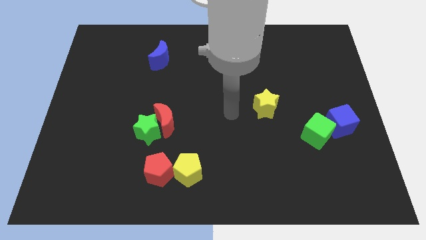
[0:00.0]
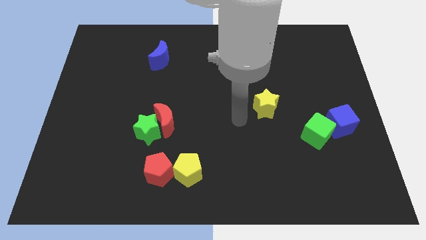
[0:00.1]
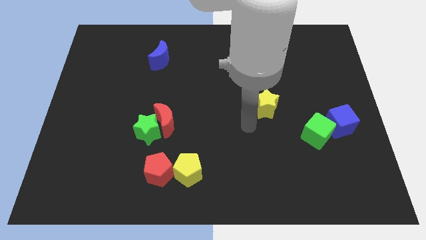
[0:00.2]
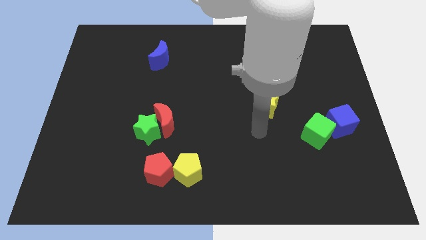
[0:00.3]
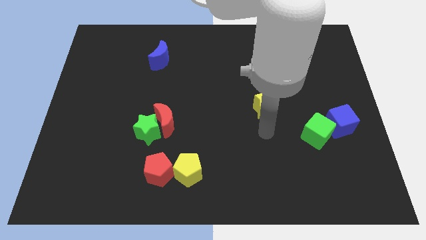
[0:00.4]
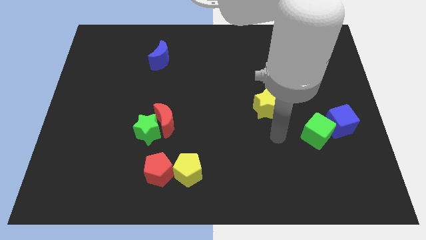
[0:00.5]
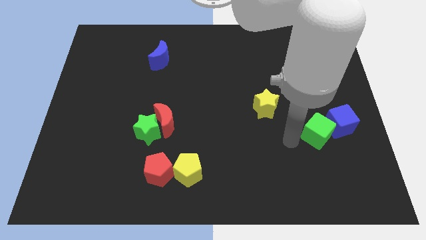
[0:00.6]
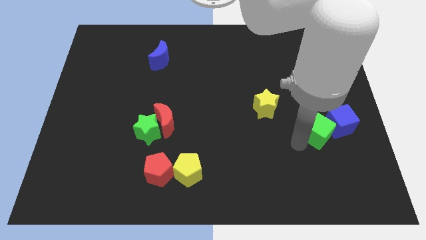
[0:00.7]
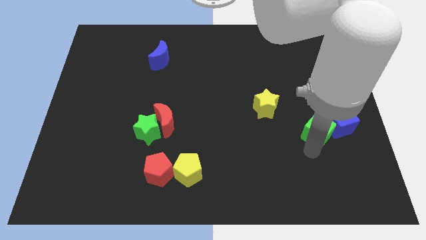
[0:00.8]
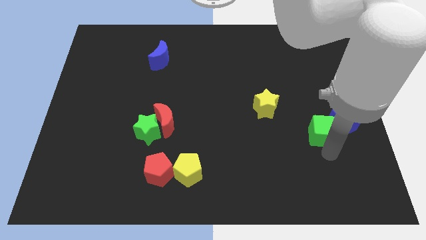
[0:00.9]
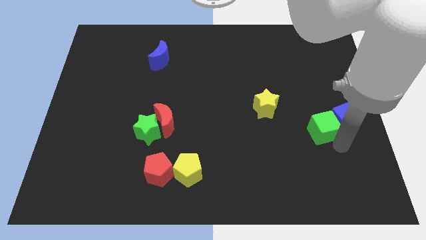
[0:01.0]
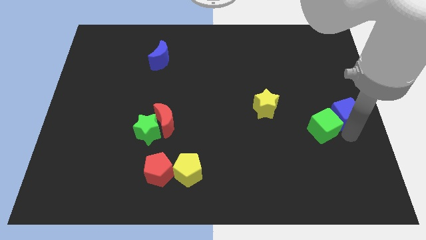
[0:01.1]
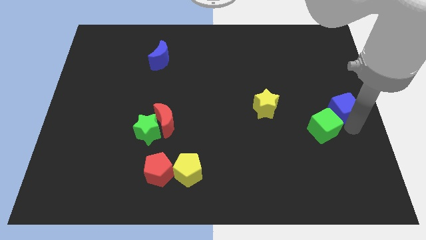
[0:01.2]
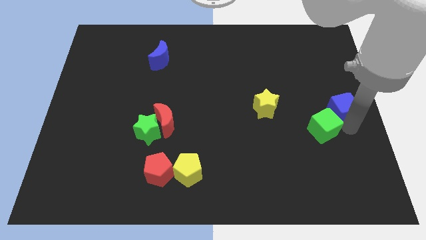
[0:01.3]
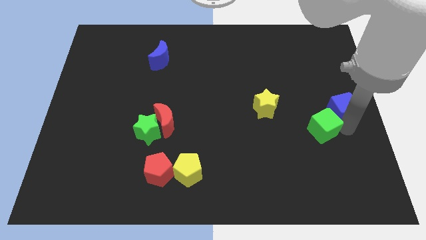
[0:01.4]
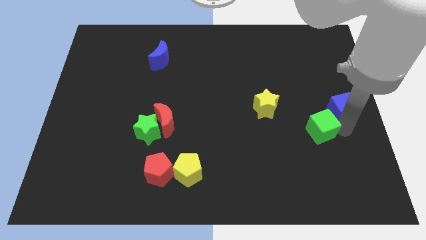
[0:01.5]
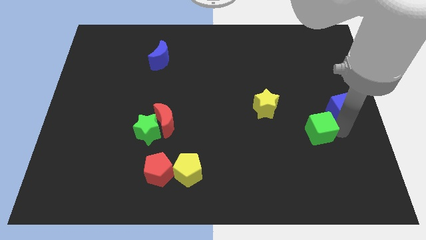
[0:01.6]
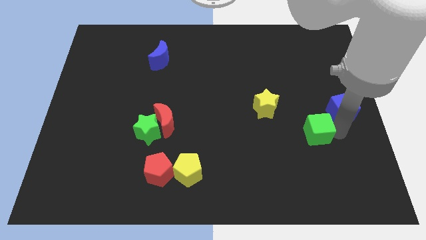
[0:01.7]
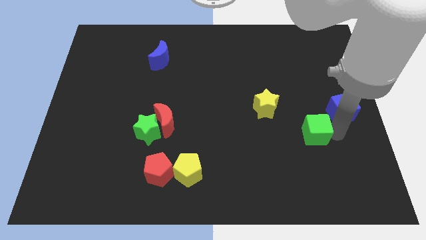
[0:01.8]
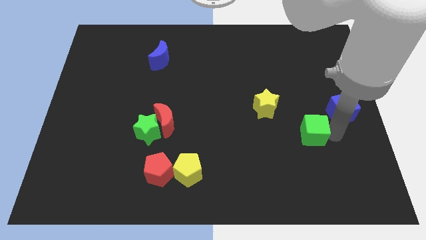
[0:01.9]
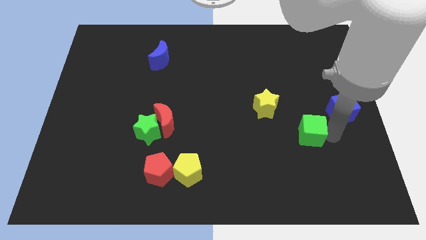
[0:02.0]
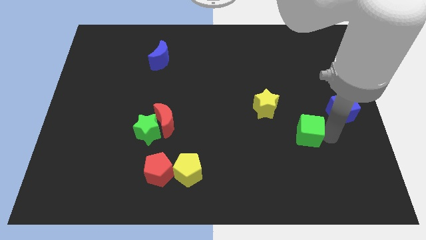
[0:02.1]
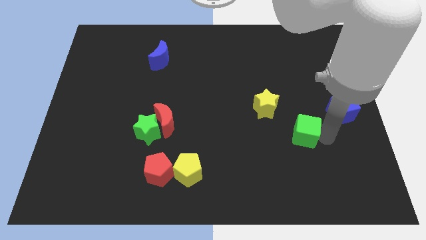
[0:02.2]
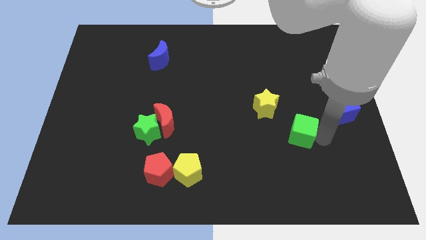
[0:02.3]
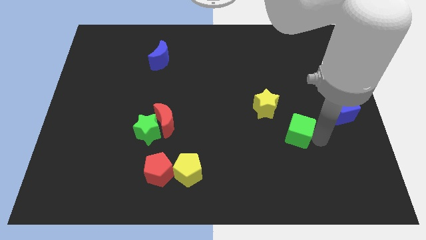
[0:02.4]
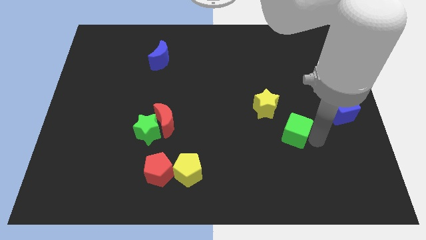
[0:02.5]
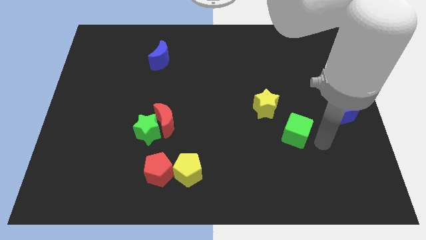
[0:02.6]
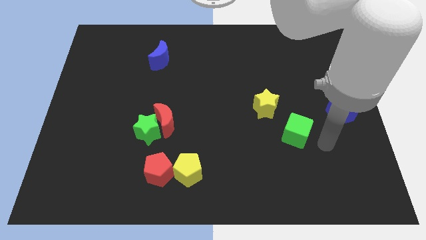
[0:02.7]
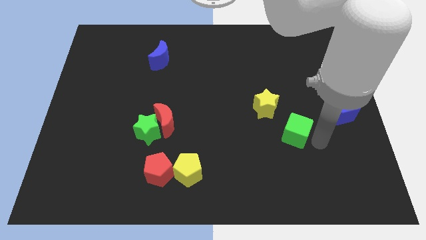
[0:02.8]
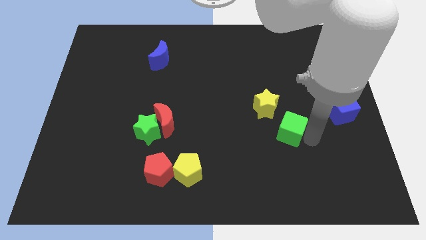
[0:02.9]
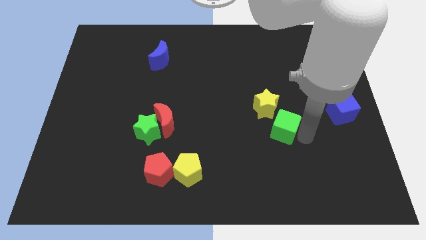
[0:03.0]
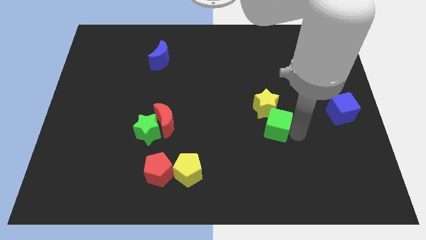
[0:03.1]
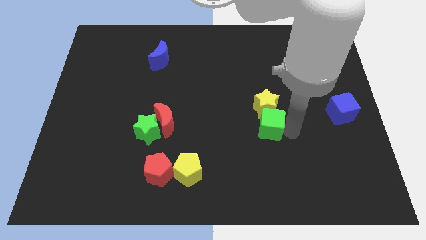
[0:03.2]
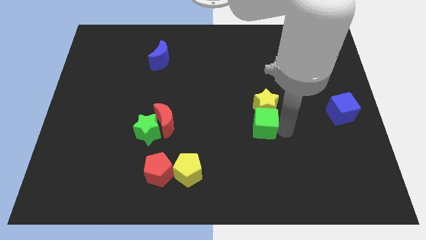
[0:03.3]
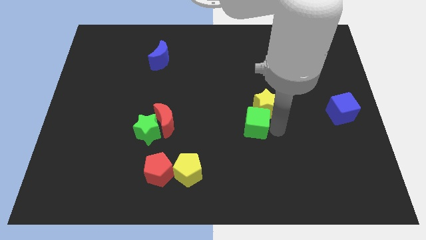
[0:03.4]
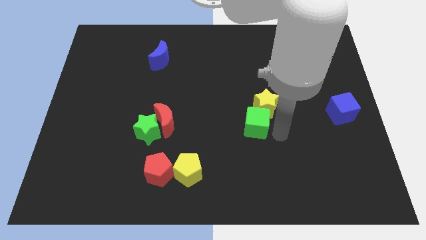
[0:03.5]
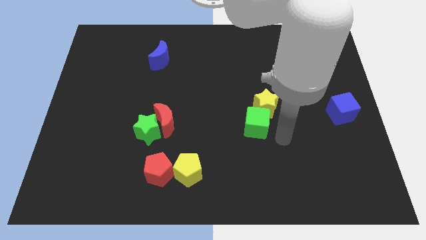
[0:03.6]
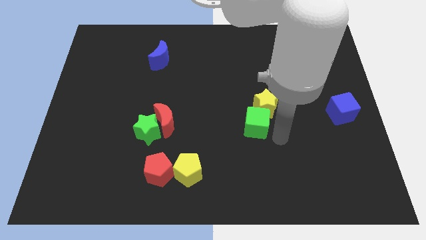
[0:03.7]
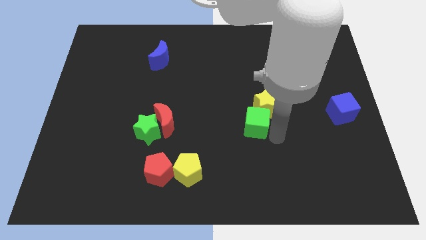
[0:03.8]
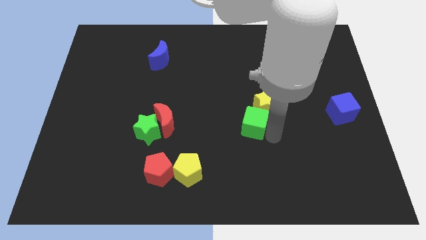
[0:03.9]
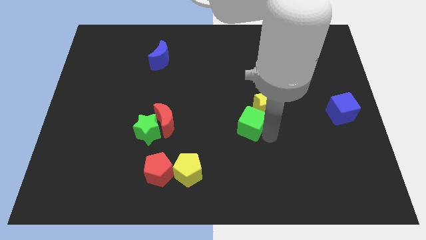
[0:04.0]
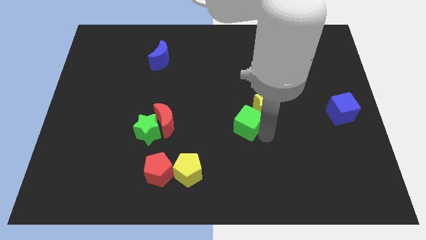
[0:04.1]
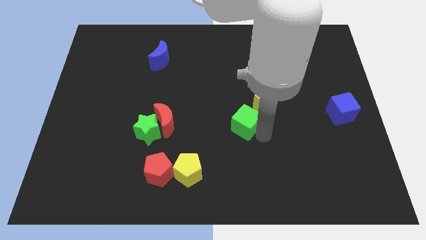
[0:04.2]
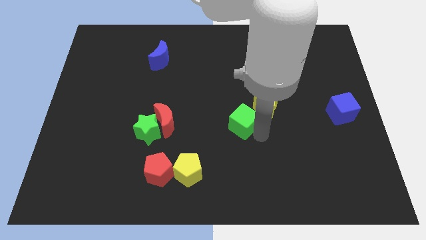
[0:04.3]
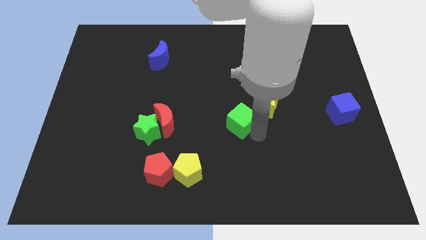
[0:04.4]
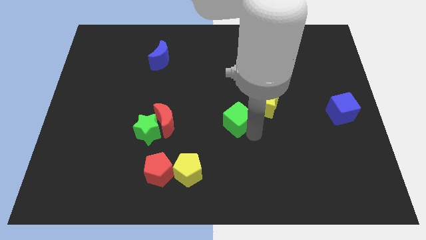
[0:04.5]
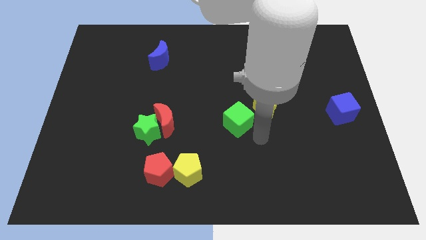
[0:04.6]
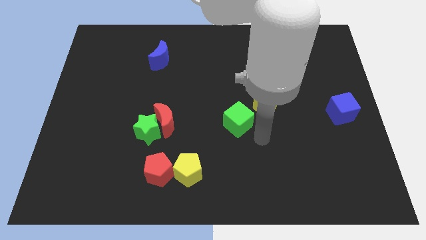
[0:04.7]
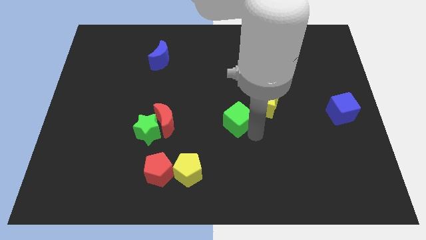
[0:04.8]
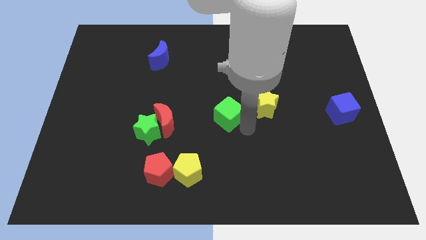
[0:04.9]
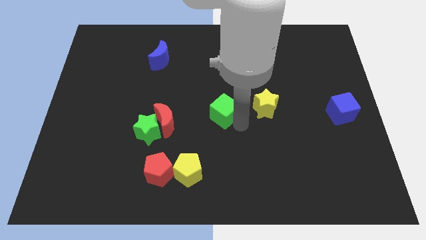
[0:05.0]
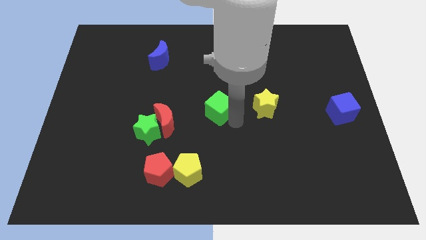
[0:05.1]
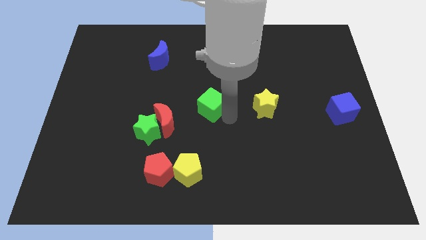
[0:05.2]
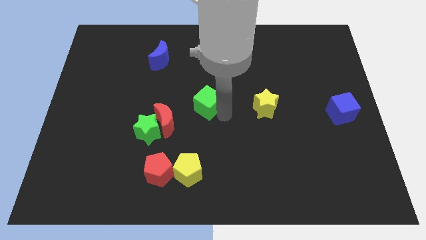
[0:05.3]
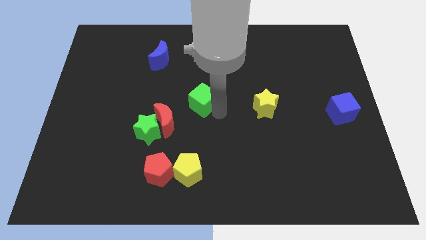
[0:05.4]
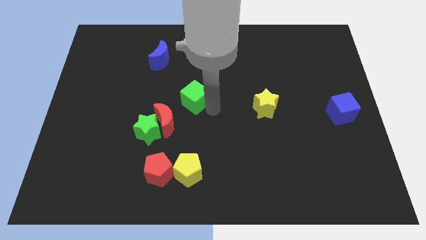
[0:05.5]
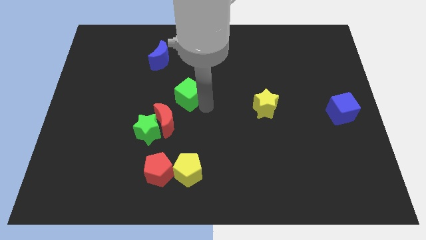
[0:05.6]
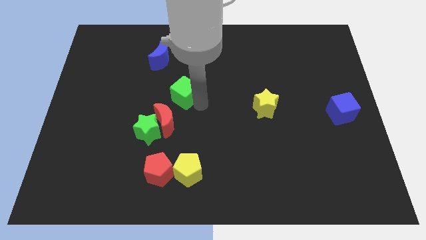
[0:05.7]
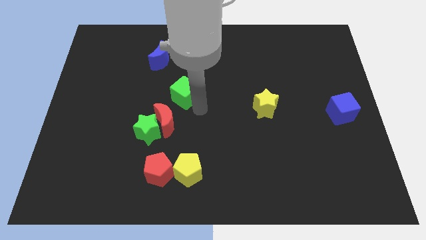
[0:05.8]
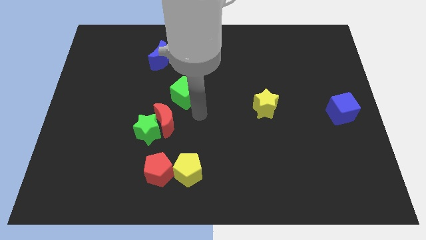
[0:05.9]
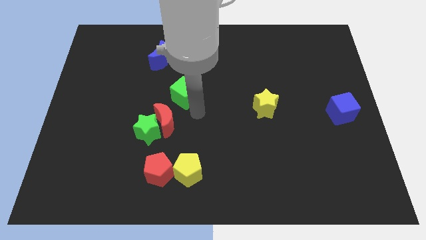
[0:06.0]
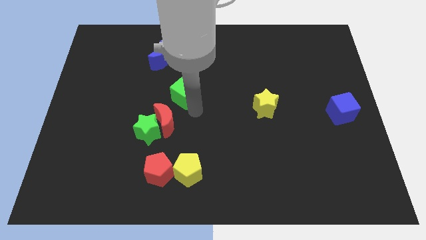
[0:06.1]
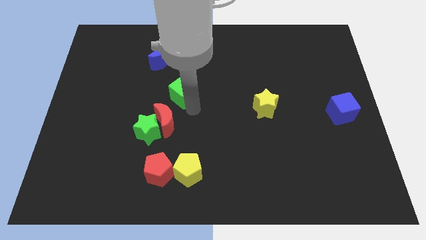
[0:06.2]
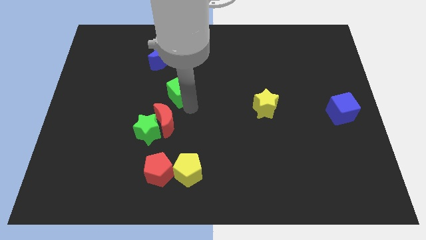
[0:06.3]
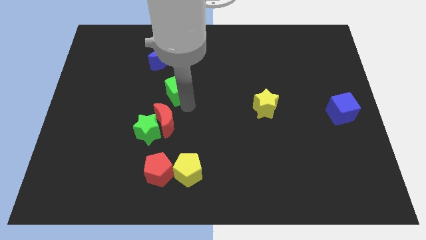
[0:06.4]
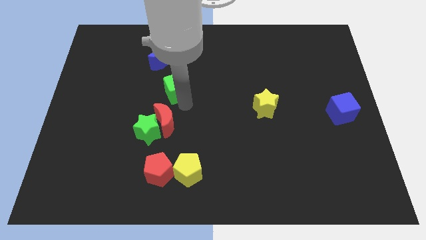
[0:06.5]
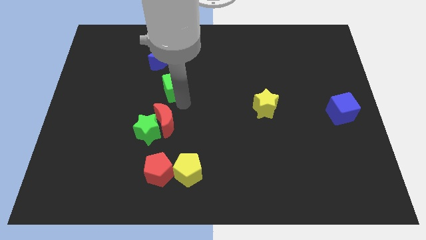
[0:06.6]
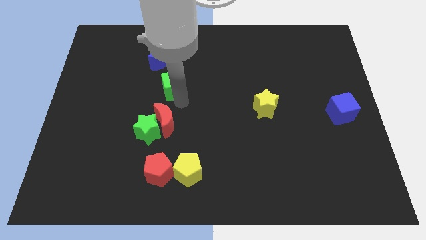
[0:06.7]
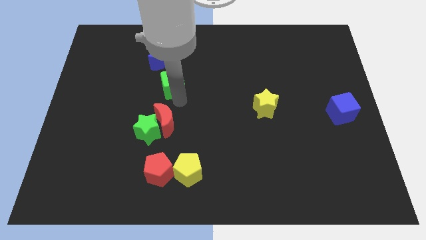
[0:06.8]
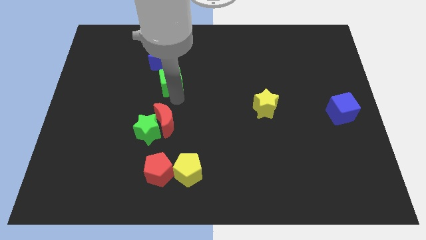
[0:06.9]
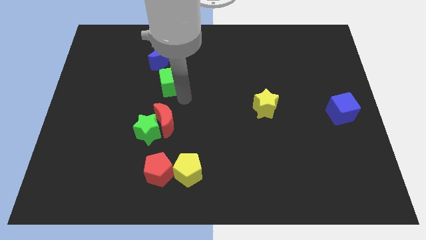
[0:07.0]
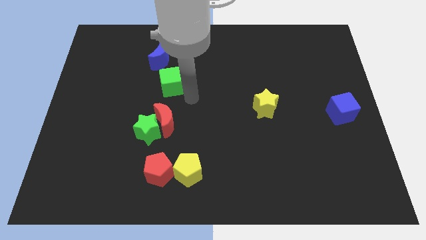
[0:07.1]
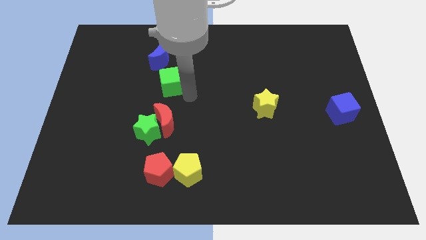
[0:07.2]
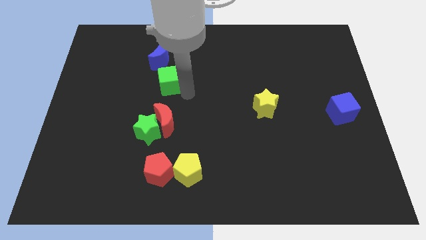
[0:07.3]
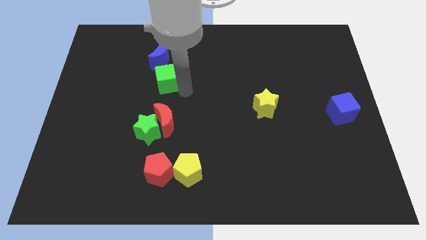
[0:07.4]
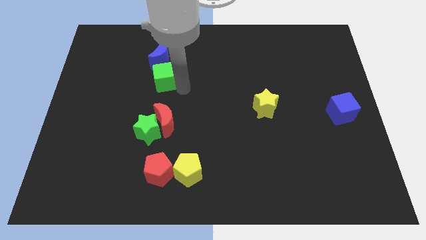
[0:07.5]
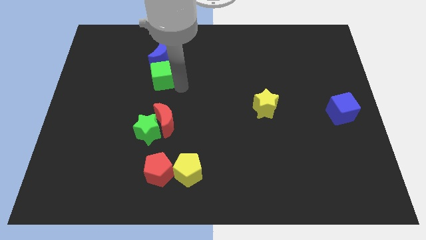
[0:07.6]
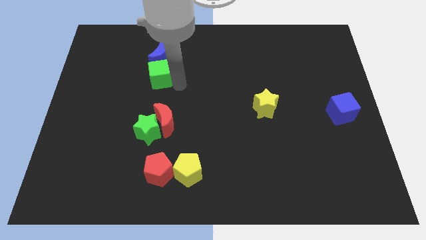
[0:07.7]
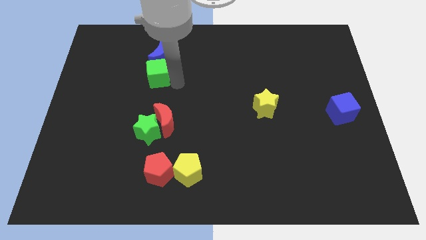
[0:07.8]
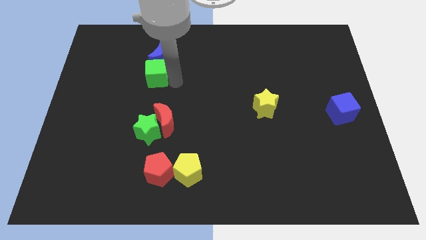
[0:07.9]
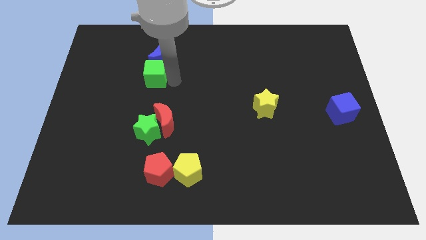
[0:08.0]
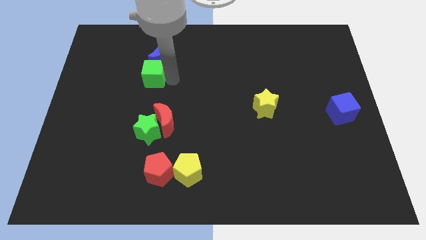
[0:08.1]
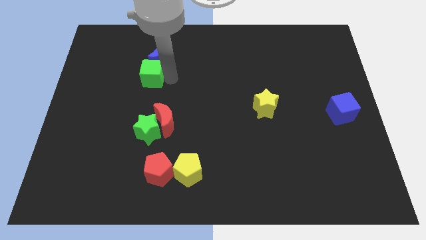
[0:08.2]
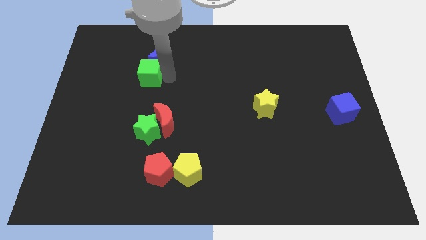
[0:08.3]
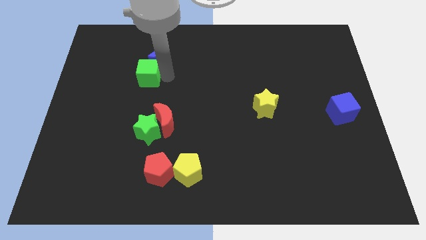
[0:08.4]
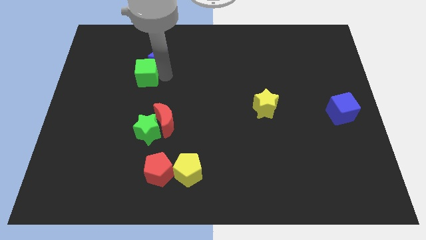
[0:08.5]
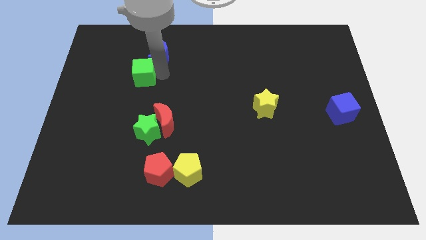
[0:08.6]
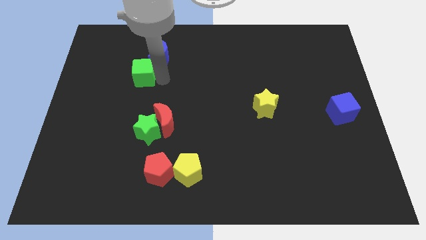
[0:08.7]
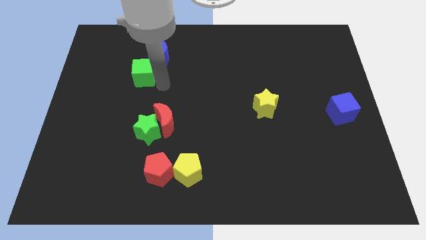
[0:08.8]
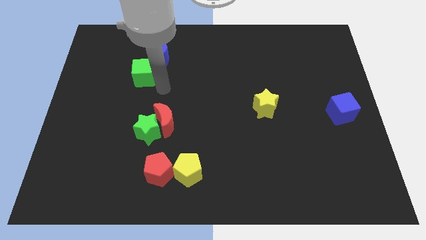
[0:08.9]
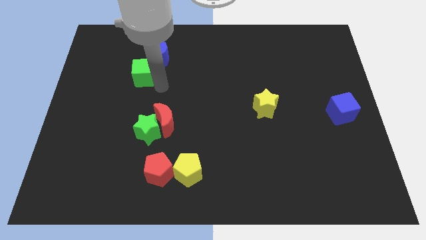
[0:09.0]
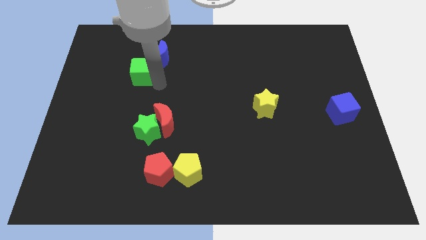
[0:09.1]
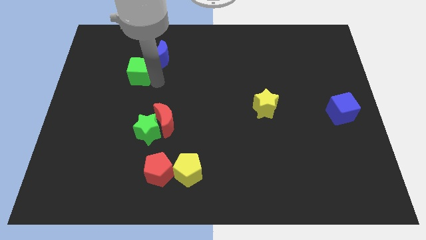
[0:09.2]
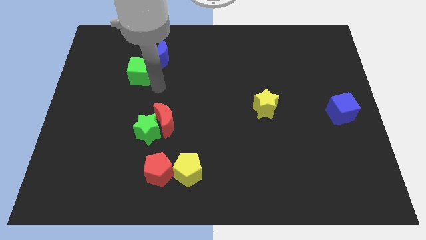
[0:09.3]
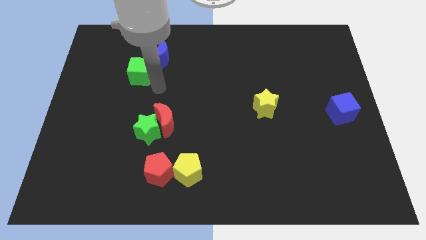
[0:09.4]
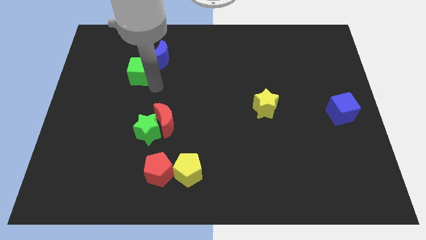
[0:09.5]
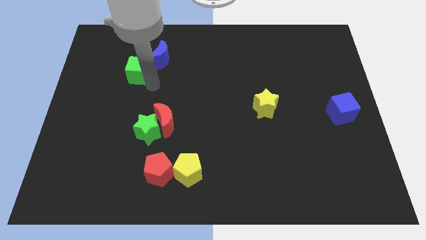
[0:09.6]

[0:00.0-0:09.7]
put the green cube just left of the blue moon
